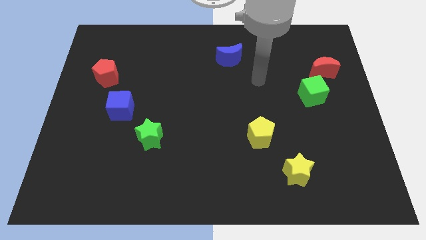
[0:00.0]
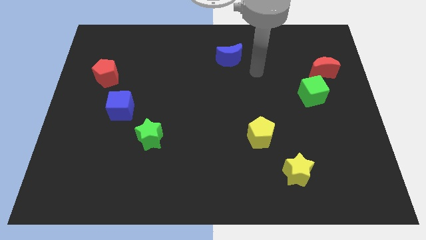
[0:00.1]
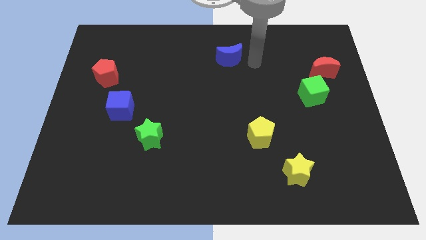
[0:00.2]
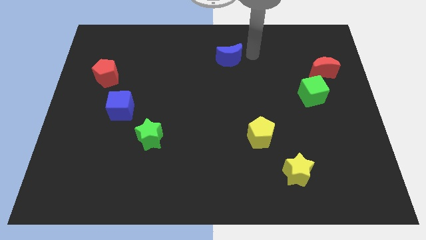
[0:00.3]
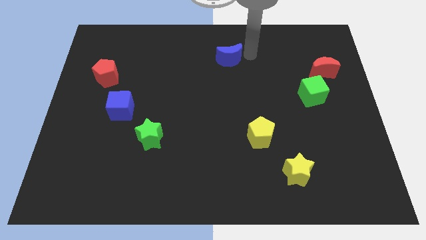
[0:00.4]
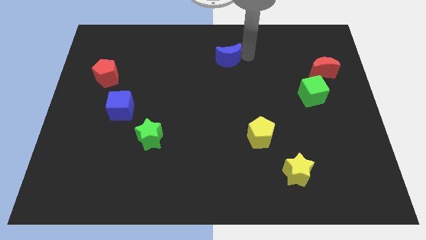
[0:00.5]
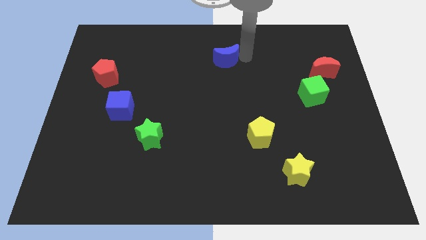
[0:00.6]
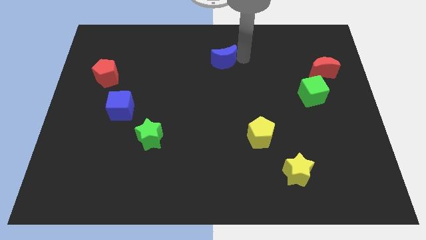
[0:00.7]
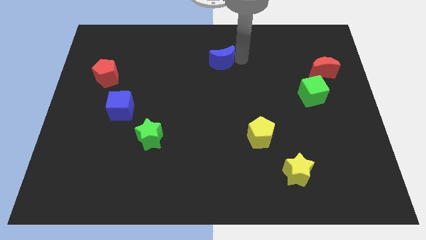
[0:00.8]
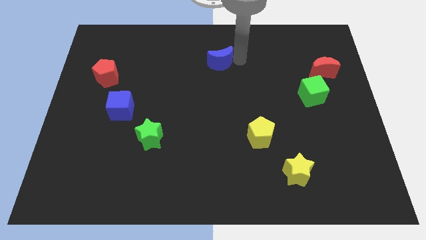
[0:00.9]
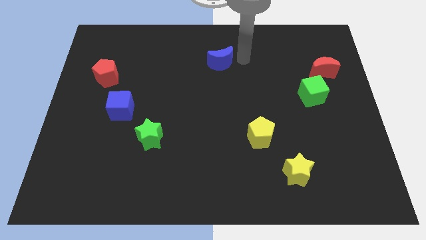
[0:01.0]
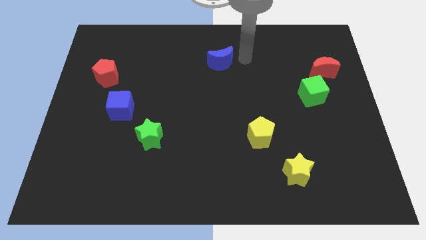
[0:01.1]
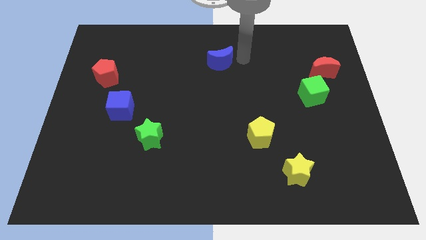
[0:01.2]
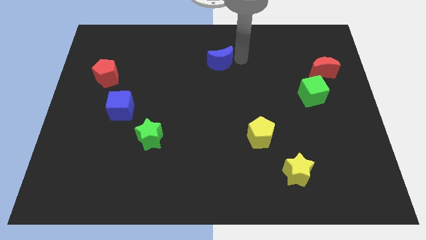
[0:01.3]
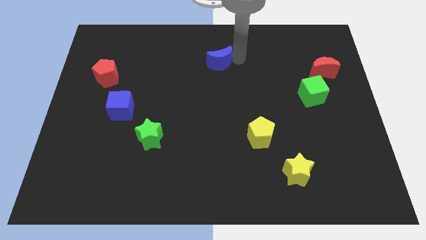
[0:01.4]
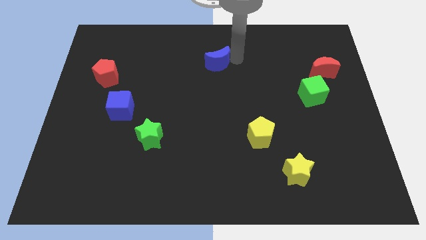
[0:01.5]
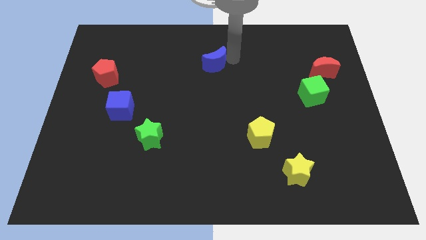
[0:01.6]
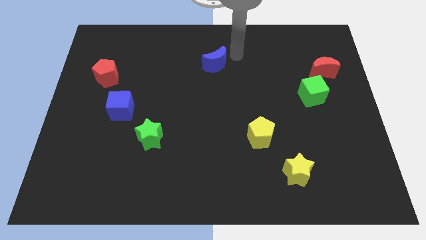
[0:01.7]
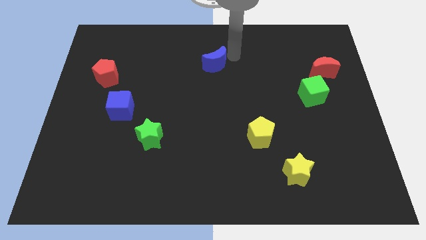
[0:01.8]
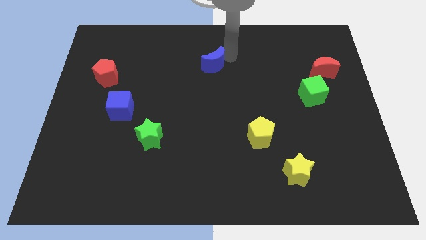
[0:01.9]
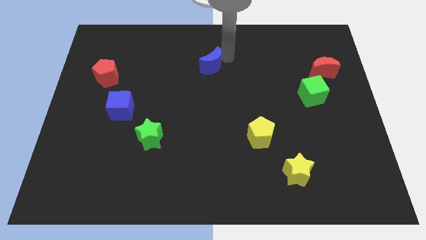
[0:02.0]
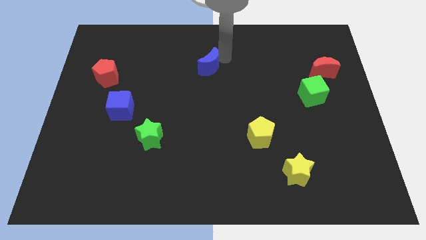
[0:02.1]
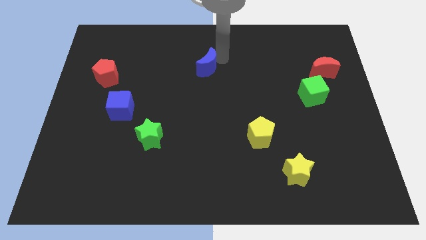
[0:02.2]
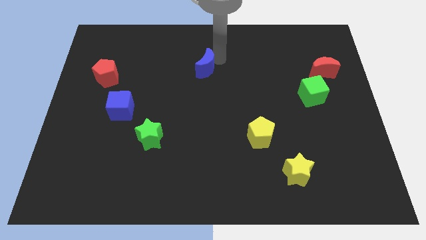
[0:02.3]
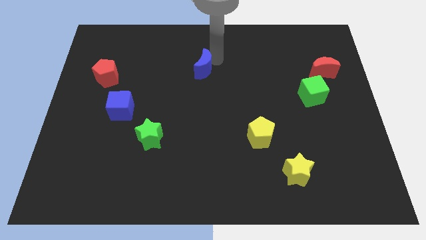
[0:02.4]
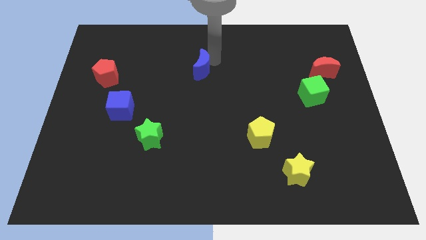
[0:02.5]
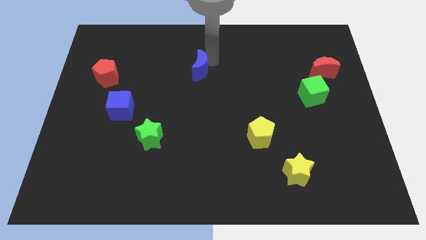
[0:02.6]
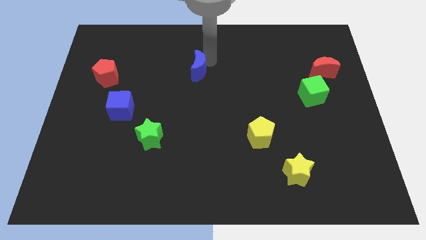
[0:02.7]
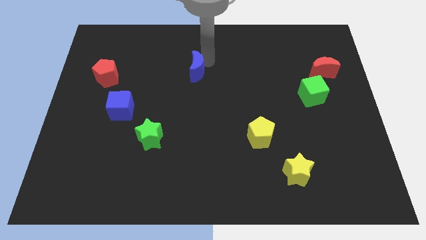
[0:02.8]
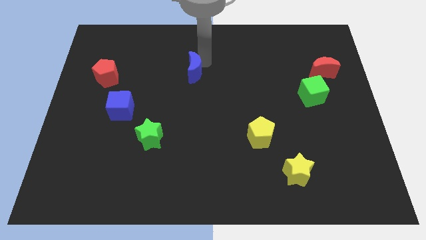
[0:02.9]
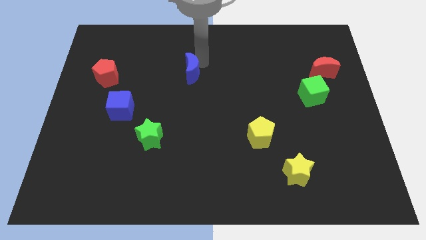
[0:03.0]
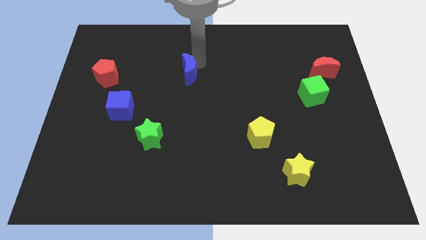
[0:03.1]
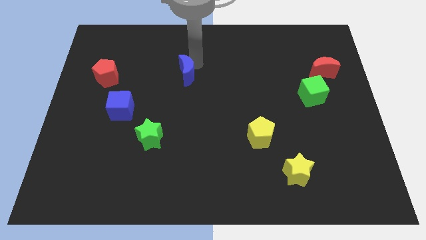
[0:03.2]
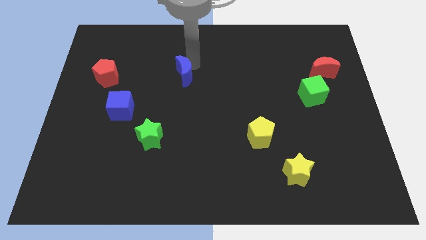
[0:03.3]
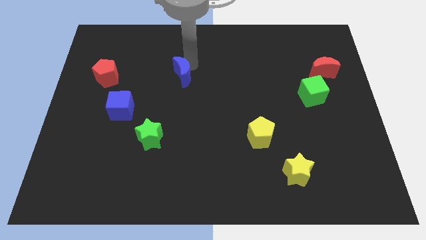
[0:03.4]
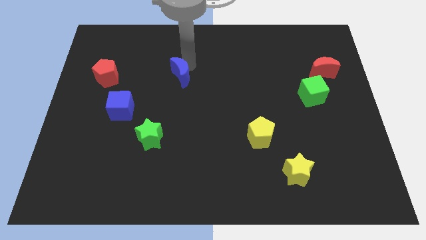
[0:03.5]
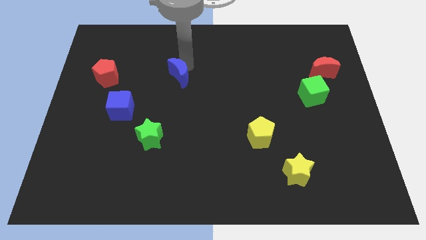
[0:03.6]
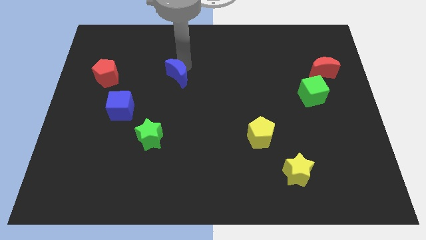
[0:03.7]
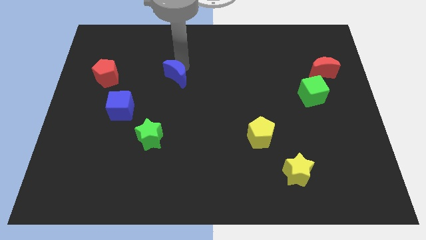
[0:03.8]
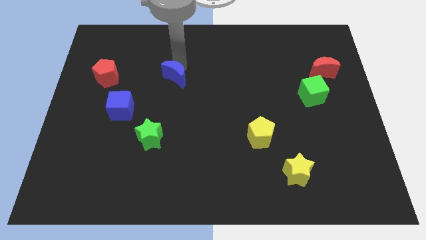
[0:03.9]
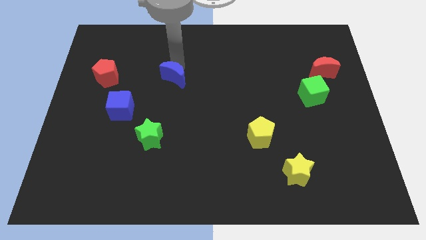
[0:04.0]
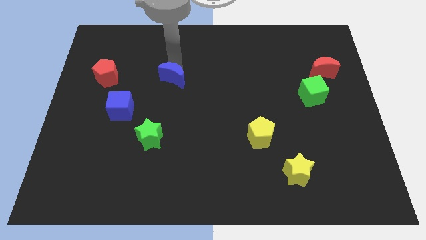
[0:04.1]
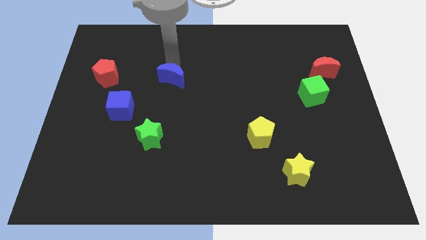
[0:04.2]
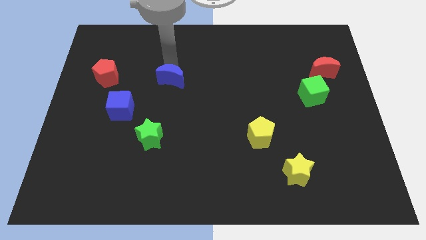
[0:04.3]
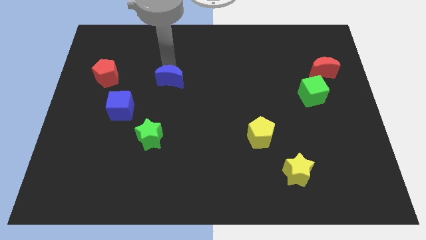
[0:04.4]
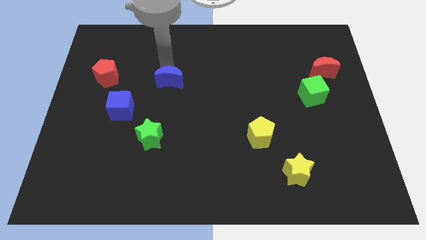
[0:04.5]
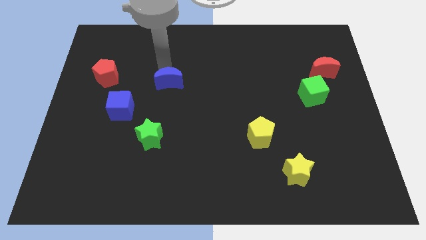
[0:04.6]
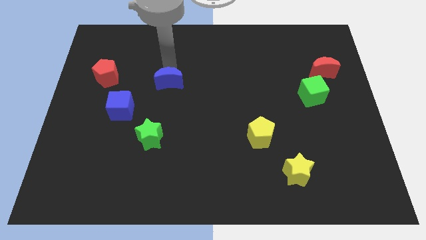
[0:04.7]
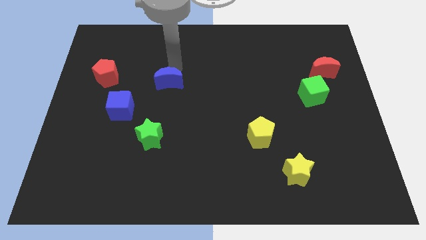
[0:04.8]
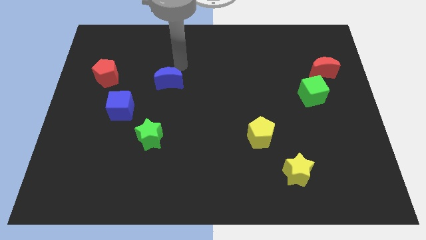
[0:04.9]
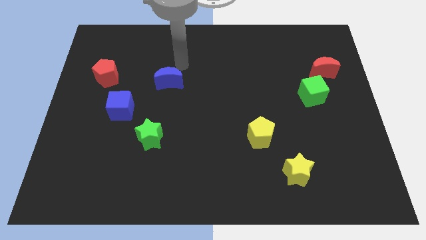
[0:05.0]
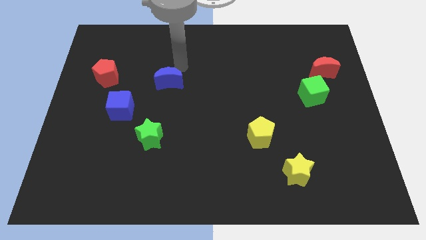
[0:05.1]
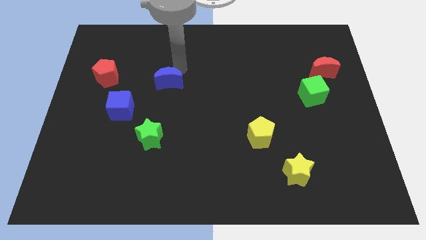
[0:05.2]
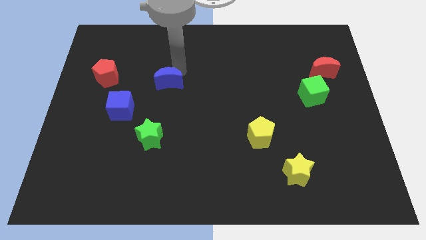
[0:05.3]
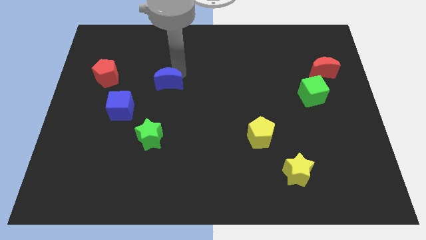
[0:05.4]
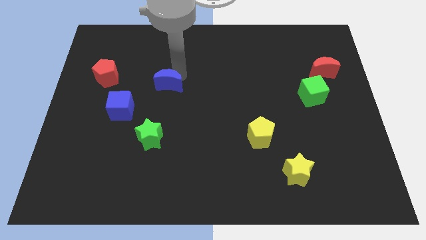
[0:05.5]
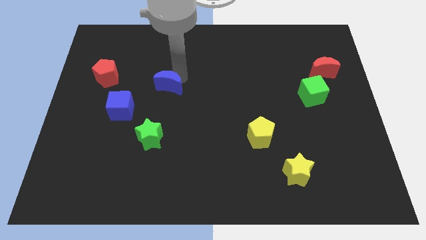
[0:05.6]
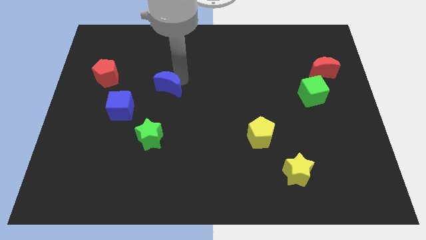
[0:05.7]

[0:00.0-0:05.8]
push the blue moon above the green star

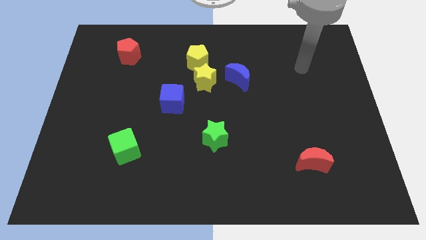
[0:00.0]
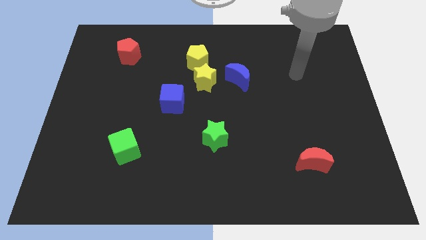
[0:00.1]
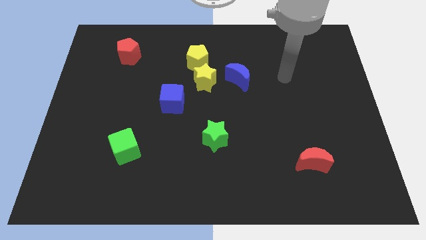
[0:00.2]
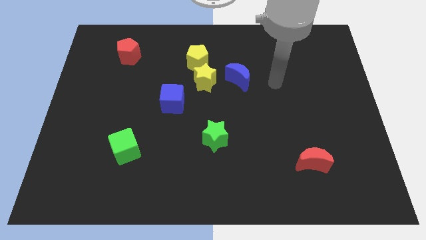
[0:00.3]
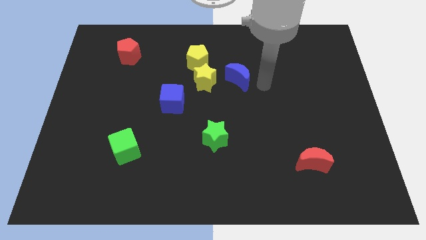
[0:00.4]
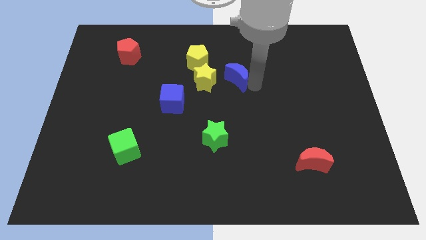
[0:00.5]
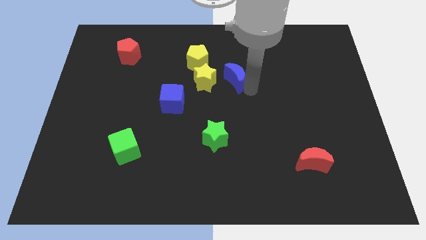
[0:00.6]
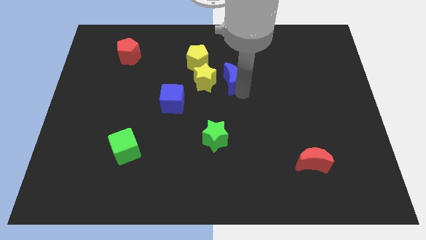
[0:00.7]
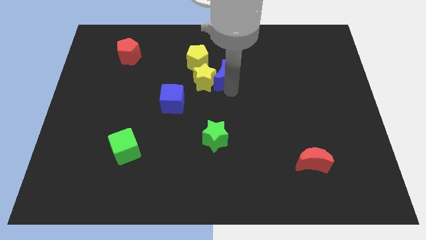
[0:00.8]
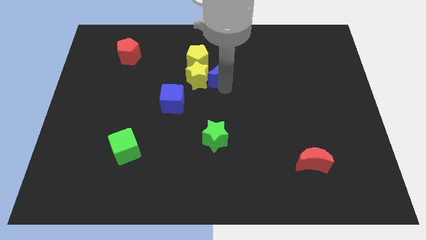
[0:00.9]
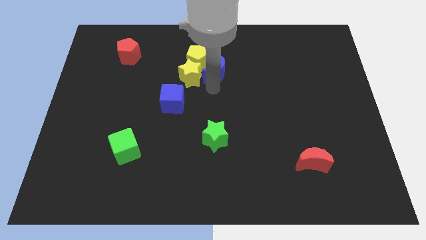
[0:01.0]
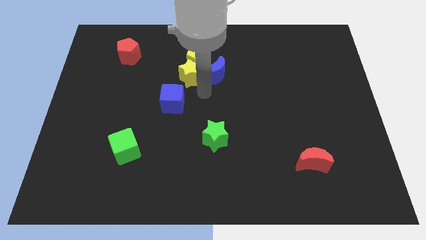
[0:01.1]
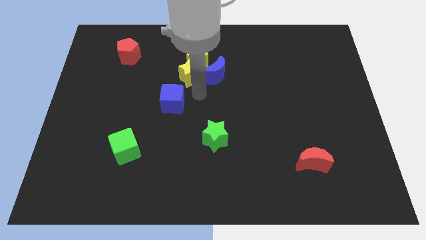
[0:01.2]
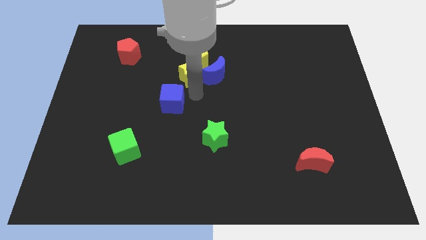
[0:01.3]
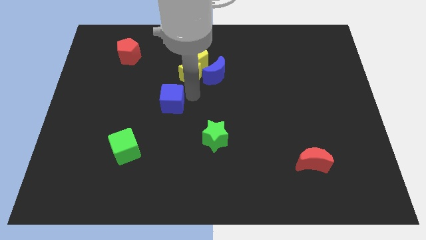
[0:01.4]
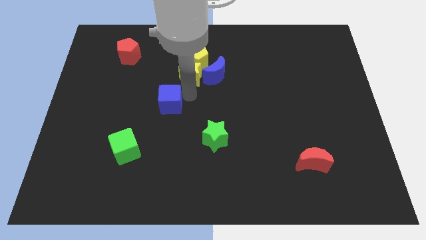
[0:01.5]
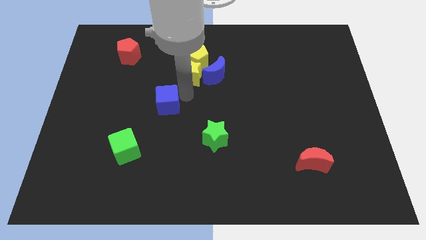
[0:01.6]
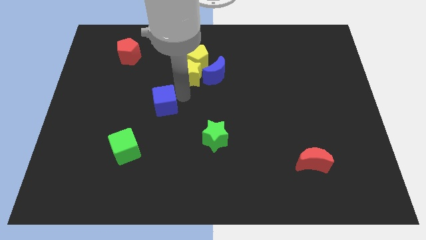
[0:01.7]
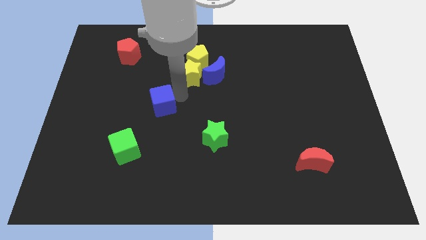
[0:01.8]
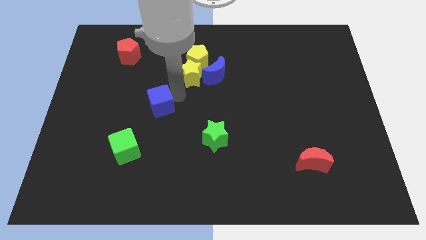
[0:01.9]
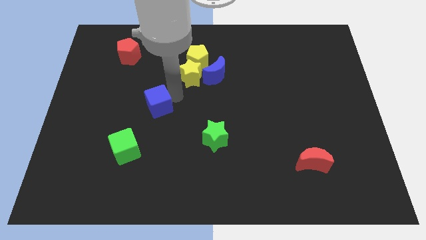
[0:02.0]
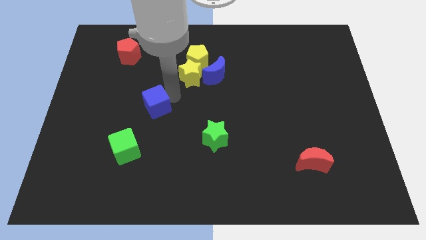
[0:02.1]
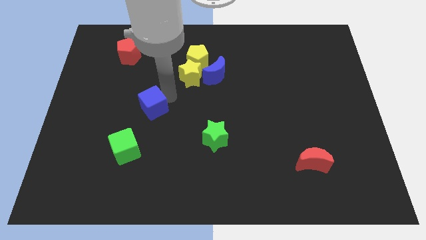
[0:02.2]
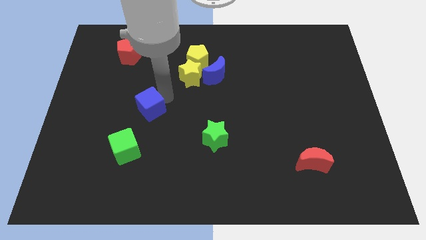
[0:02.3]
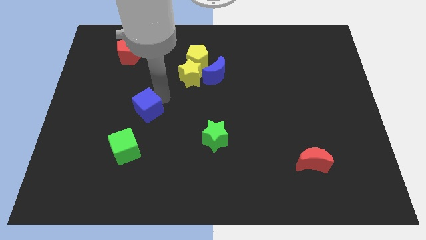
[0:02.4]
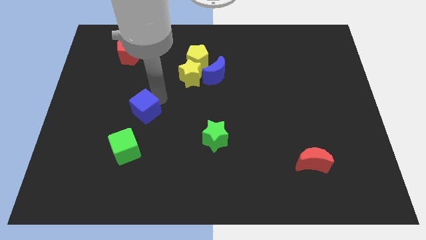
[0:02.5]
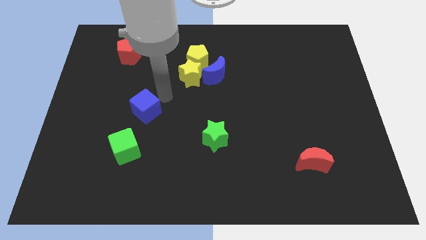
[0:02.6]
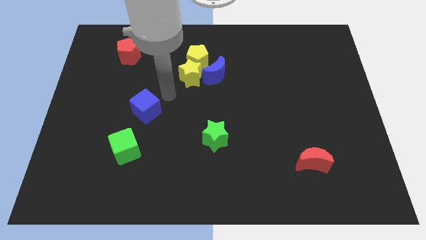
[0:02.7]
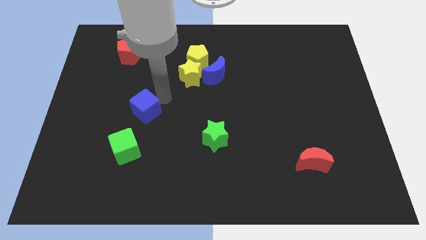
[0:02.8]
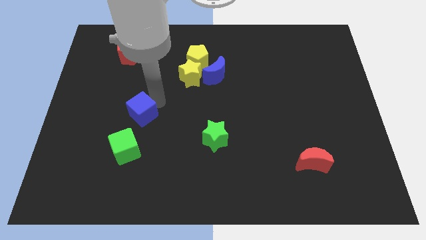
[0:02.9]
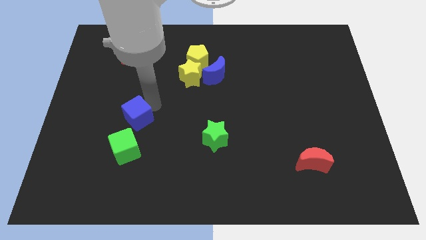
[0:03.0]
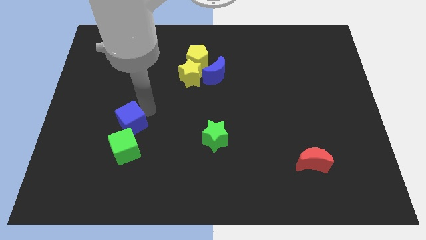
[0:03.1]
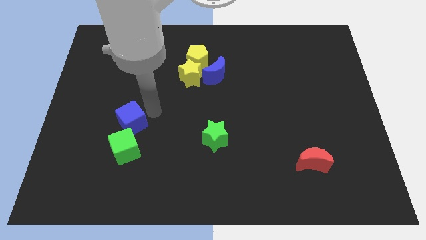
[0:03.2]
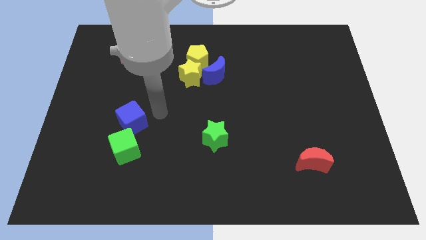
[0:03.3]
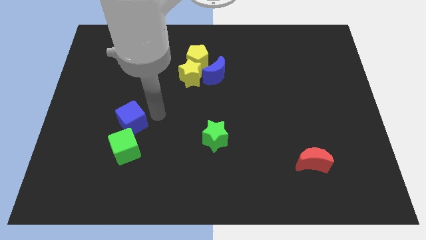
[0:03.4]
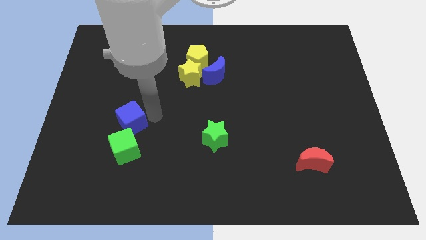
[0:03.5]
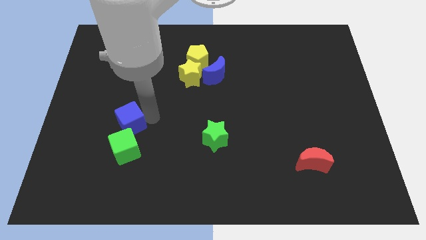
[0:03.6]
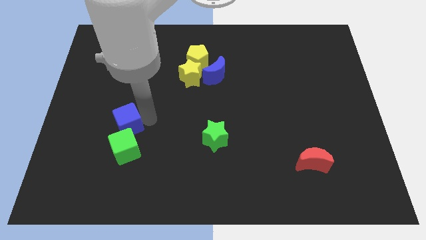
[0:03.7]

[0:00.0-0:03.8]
push the blue cube to the top left side of the green cube
